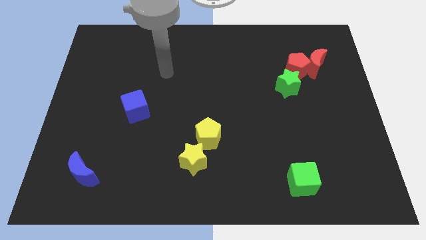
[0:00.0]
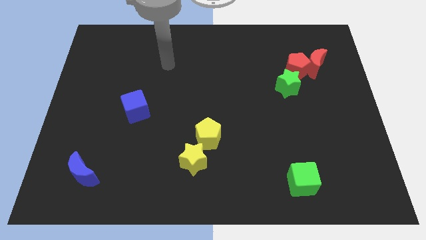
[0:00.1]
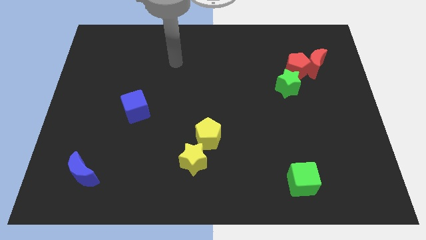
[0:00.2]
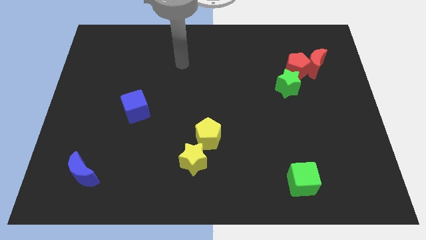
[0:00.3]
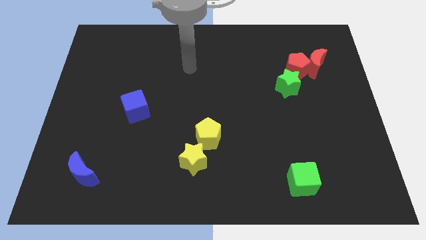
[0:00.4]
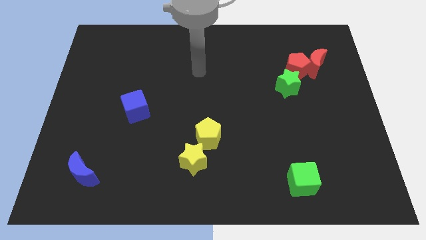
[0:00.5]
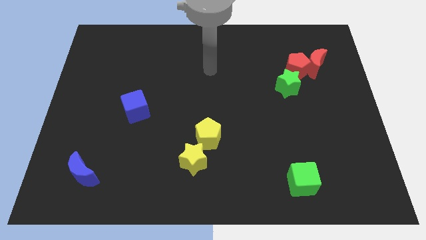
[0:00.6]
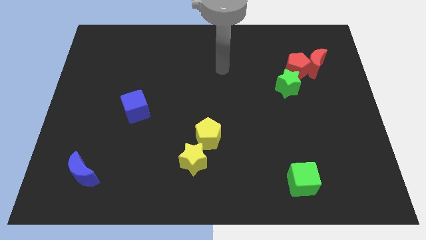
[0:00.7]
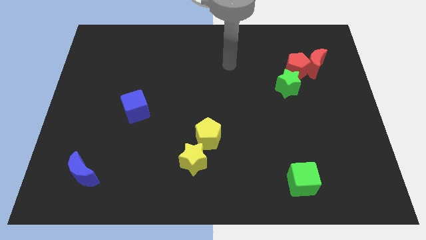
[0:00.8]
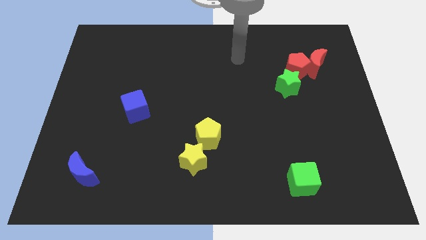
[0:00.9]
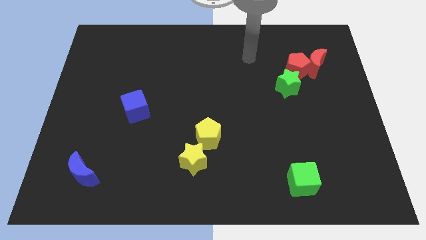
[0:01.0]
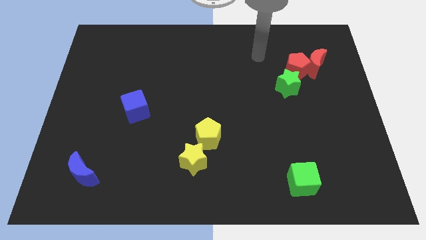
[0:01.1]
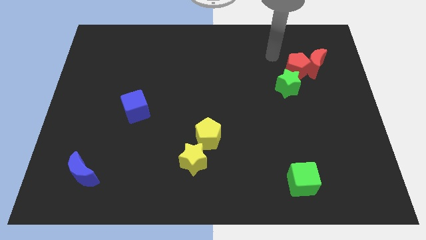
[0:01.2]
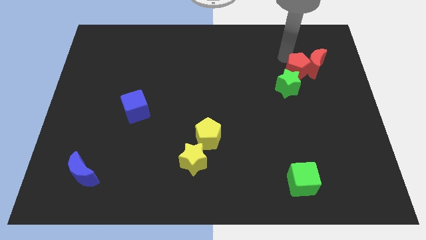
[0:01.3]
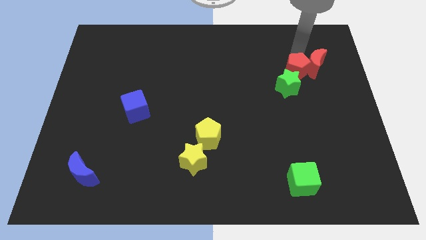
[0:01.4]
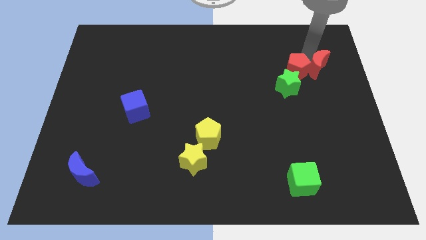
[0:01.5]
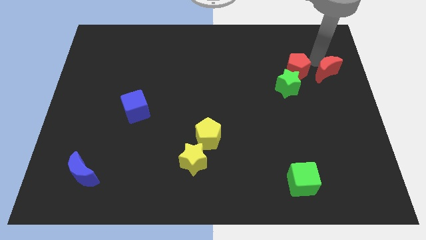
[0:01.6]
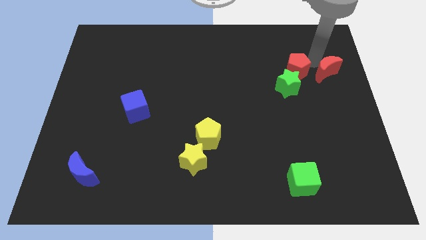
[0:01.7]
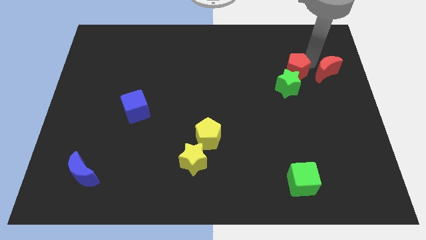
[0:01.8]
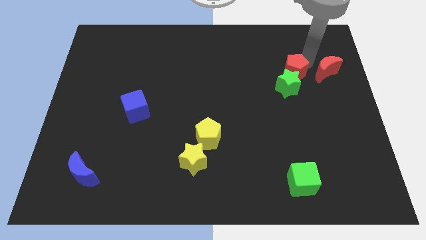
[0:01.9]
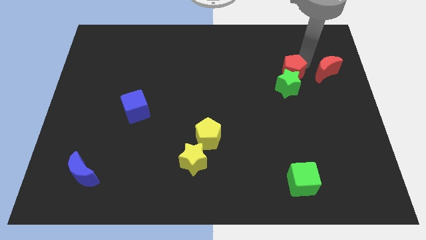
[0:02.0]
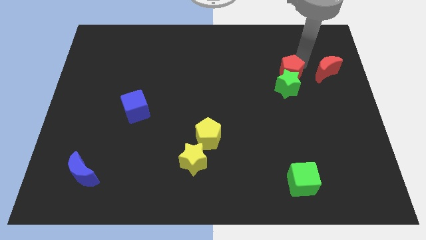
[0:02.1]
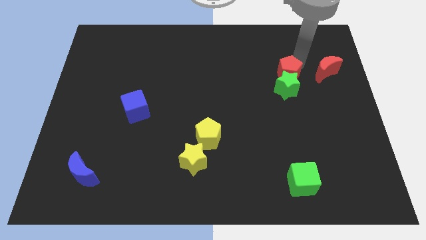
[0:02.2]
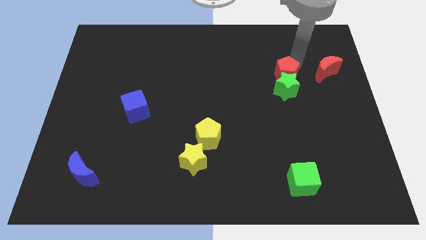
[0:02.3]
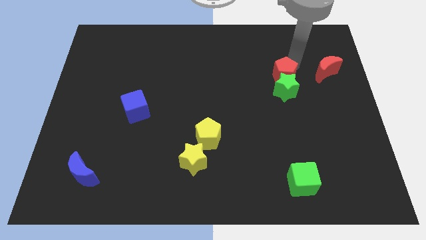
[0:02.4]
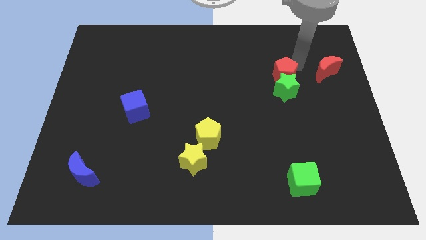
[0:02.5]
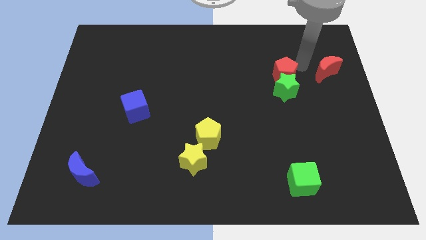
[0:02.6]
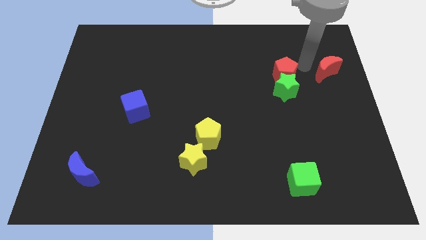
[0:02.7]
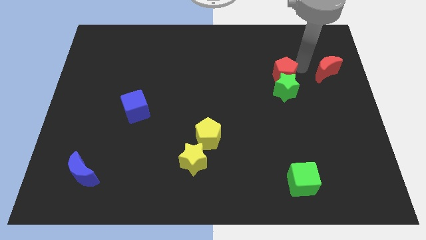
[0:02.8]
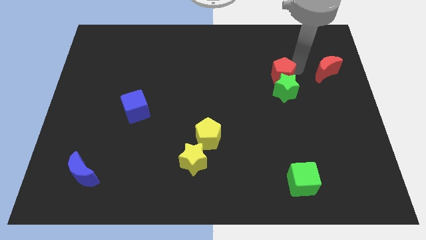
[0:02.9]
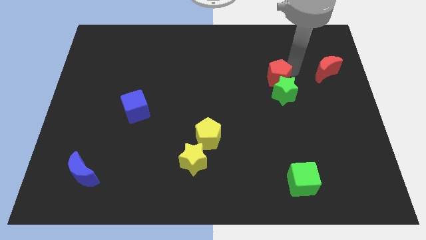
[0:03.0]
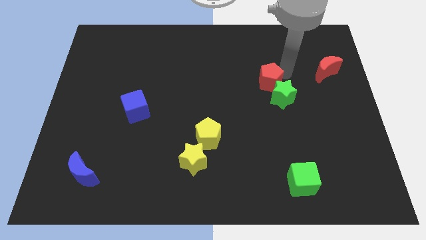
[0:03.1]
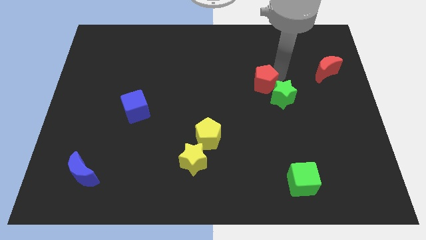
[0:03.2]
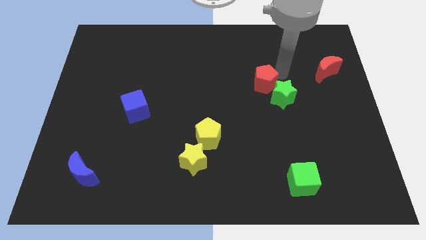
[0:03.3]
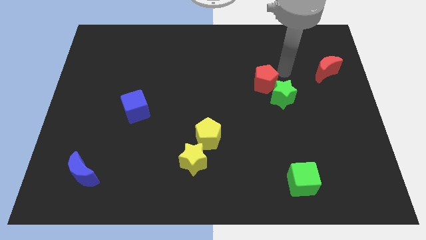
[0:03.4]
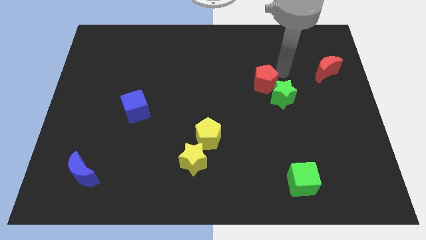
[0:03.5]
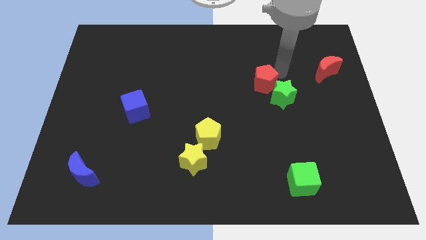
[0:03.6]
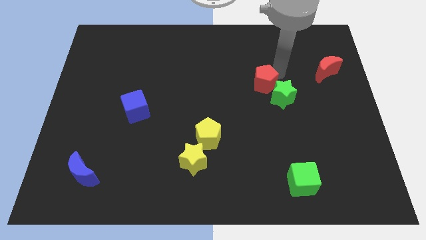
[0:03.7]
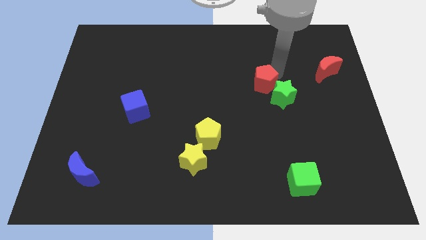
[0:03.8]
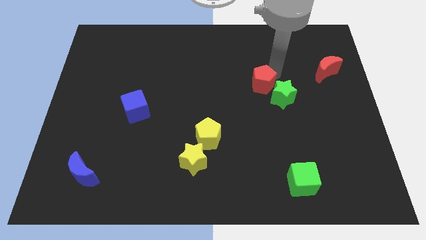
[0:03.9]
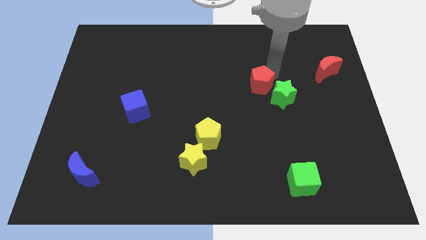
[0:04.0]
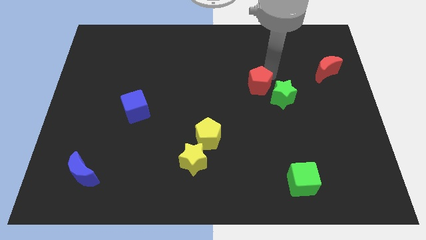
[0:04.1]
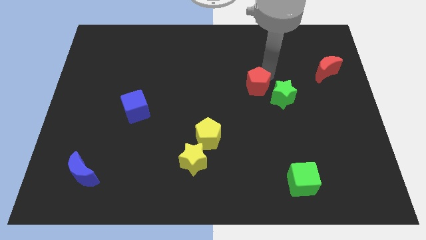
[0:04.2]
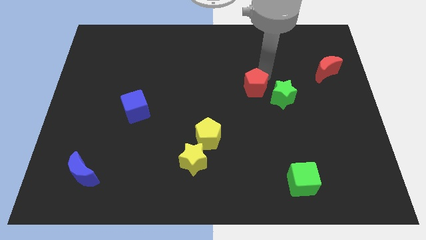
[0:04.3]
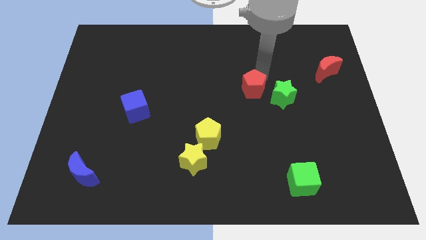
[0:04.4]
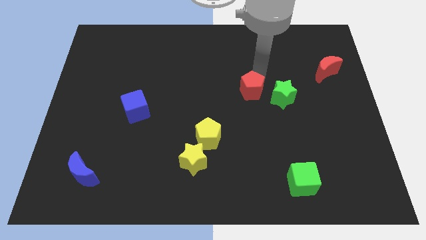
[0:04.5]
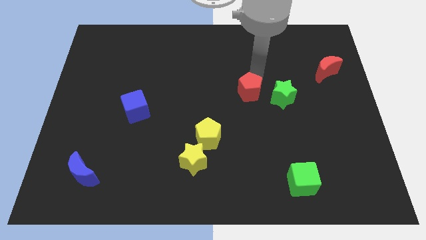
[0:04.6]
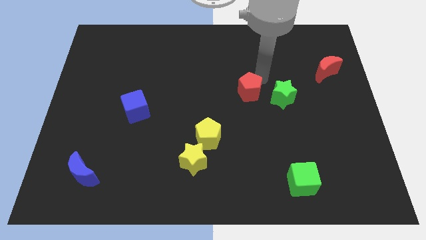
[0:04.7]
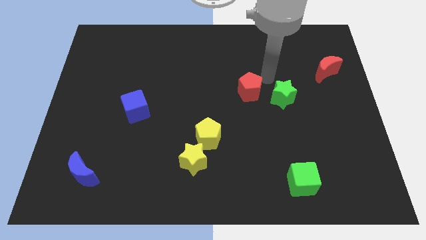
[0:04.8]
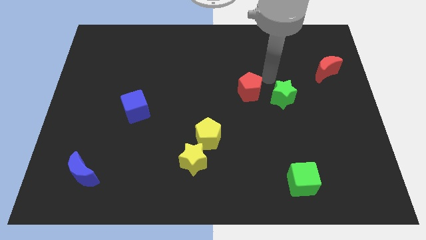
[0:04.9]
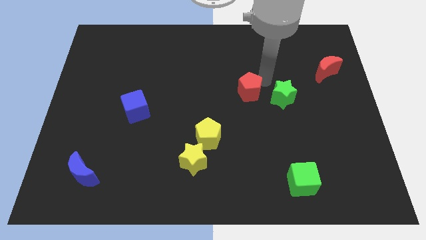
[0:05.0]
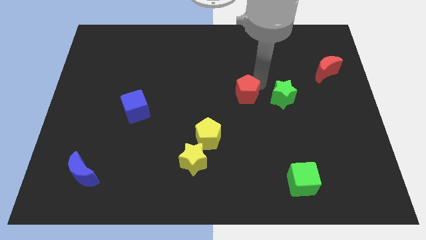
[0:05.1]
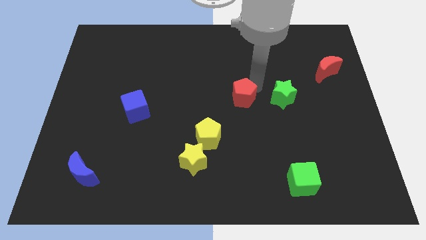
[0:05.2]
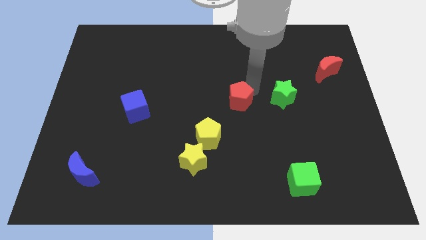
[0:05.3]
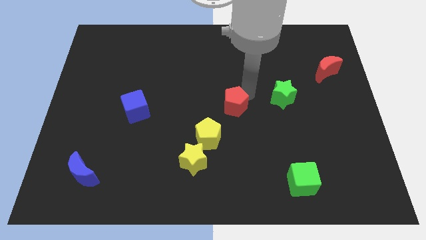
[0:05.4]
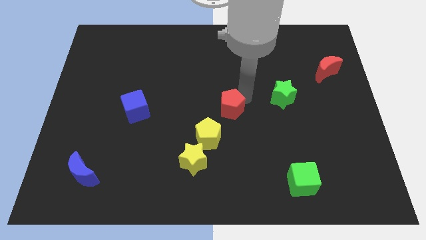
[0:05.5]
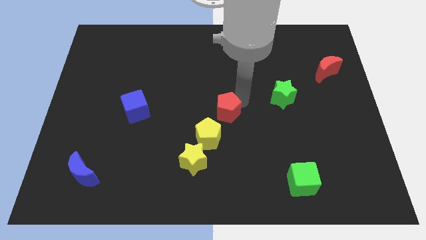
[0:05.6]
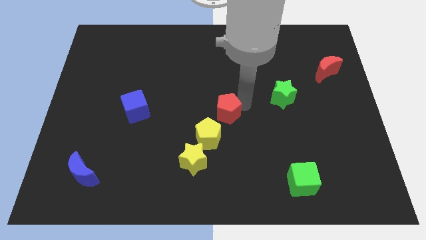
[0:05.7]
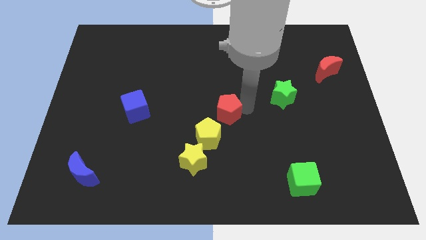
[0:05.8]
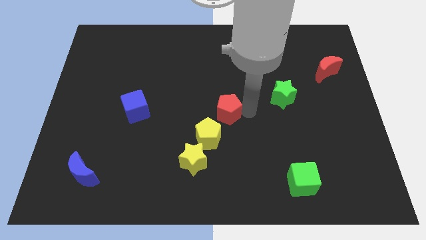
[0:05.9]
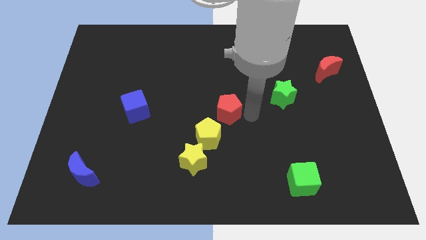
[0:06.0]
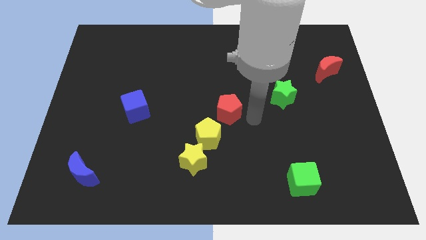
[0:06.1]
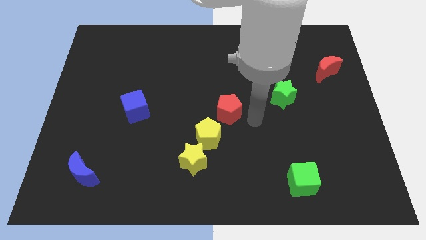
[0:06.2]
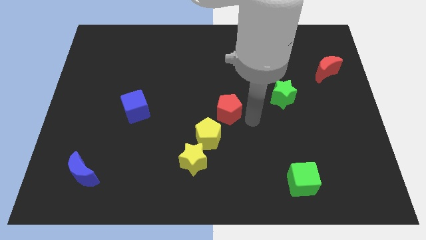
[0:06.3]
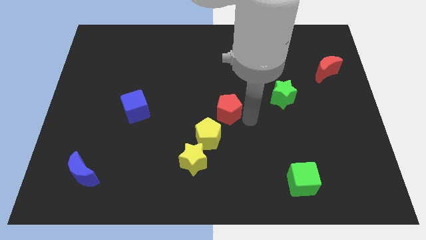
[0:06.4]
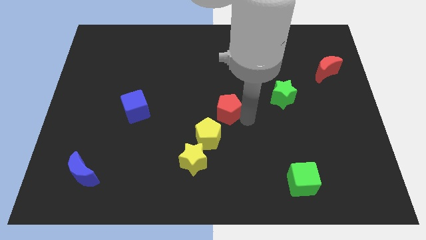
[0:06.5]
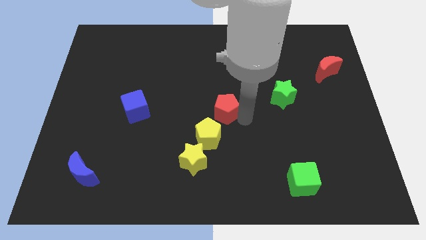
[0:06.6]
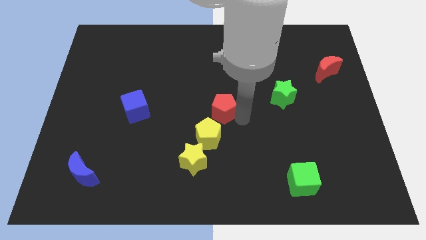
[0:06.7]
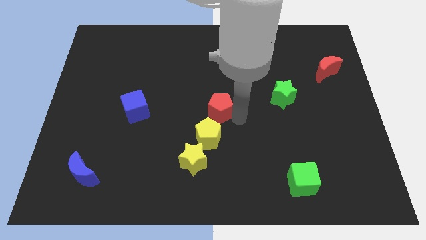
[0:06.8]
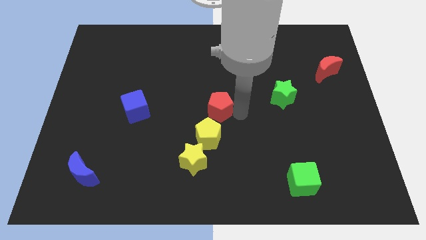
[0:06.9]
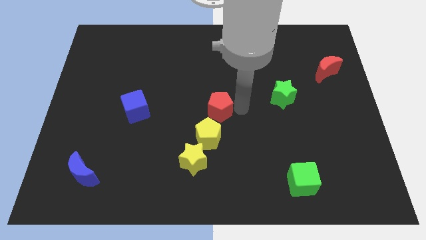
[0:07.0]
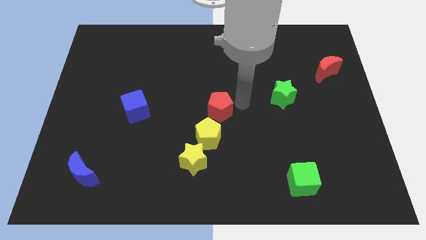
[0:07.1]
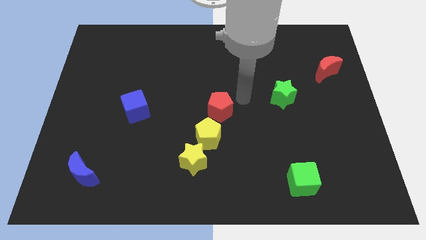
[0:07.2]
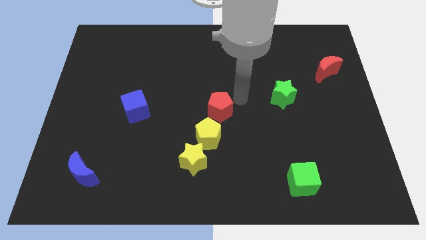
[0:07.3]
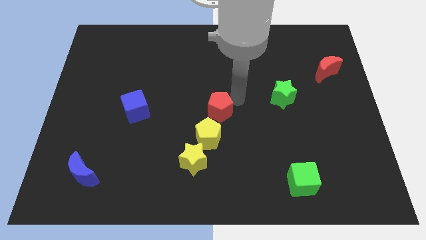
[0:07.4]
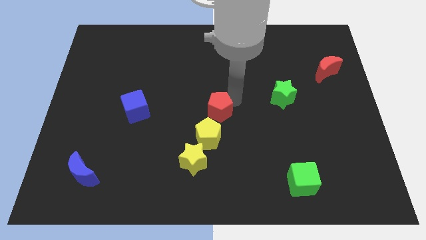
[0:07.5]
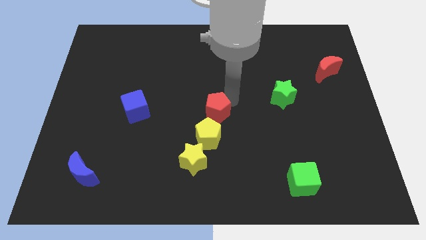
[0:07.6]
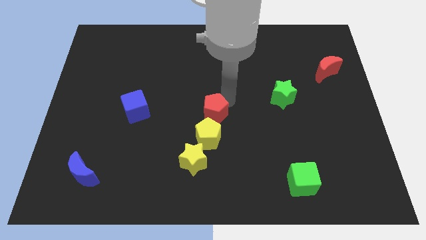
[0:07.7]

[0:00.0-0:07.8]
push the red pentagon to the top of the yellow star
